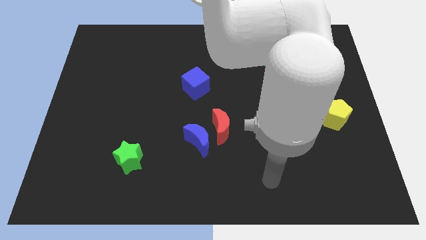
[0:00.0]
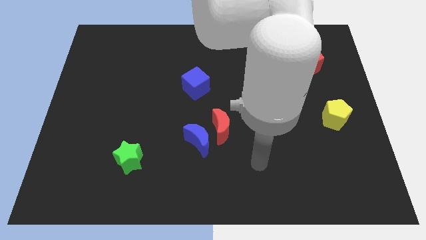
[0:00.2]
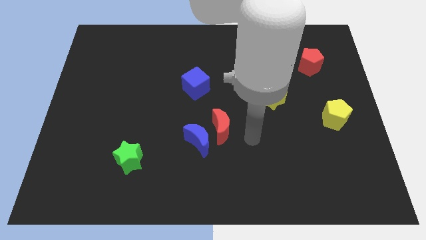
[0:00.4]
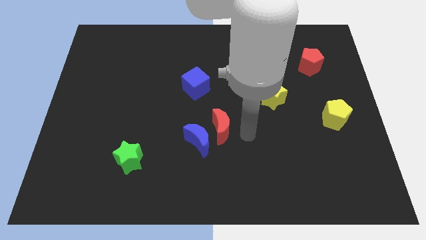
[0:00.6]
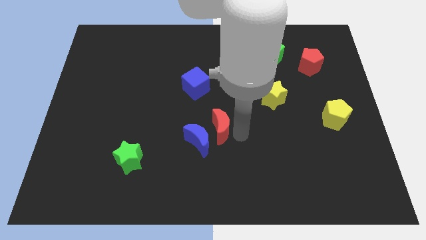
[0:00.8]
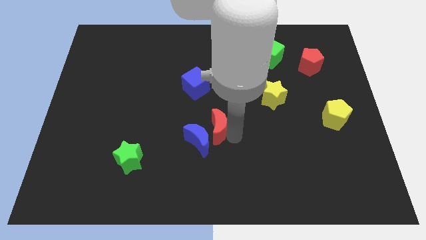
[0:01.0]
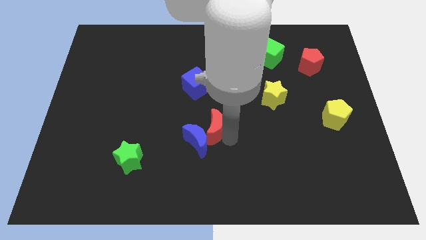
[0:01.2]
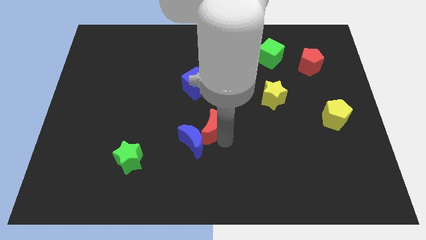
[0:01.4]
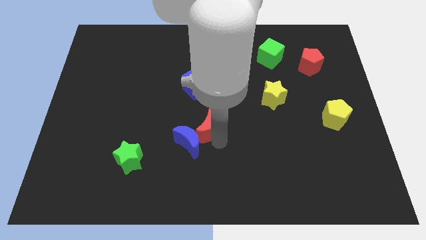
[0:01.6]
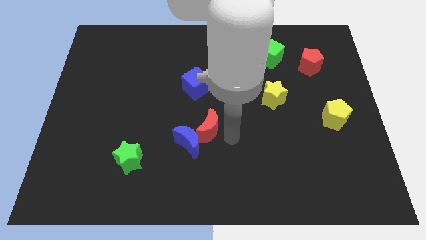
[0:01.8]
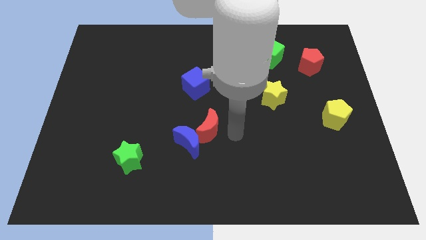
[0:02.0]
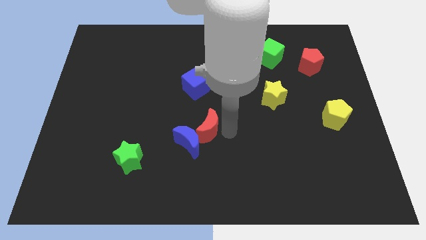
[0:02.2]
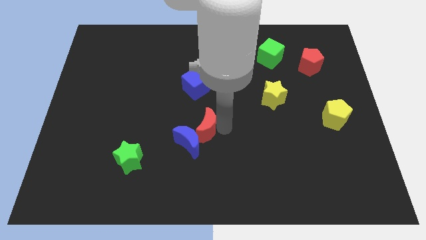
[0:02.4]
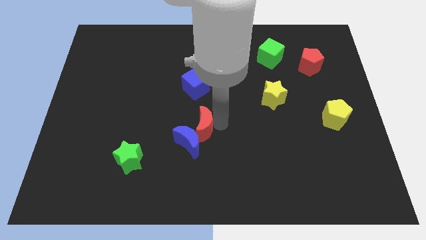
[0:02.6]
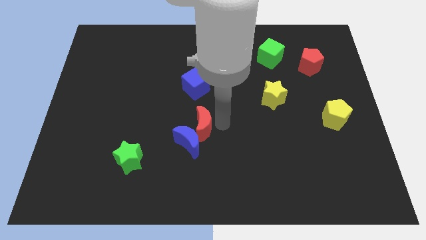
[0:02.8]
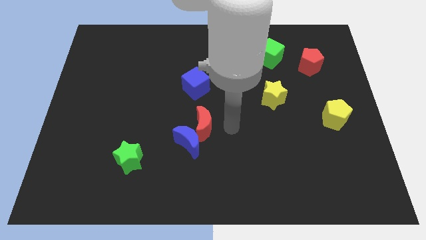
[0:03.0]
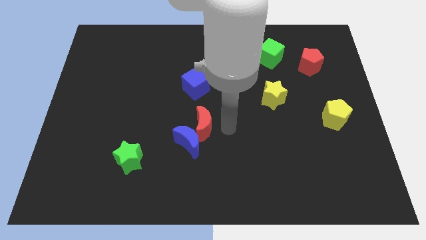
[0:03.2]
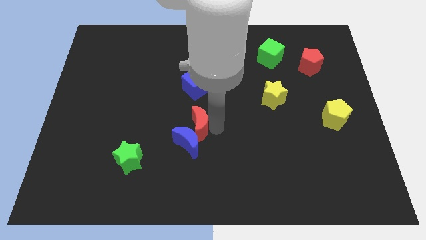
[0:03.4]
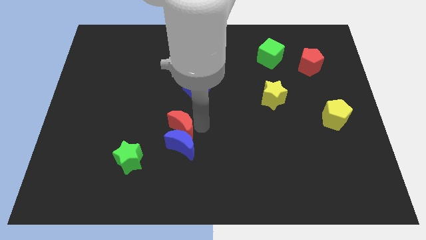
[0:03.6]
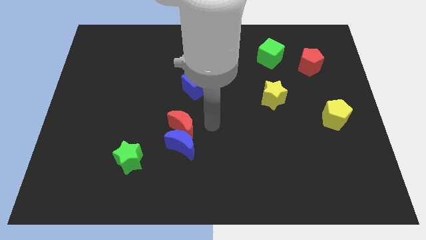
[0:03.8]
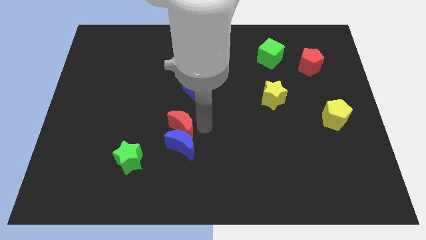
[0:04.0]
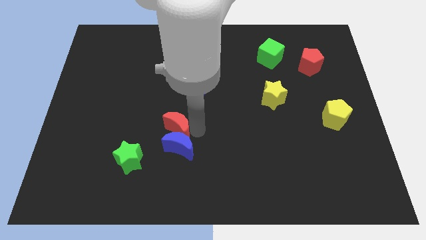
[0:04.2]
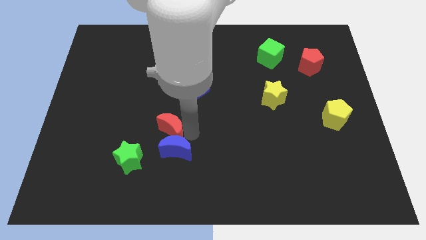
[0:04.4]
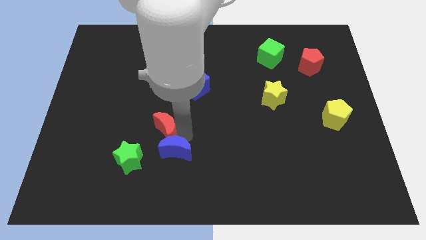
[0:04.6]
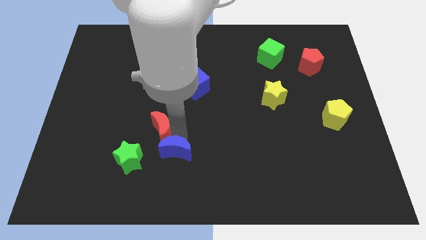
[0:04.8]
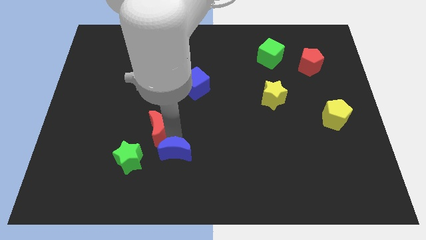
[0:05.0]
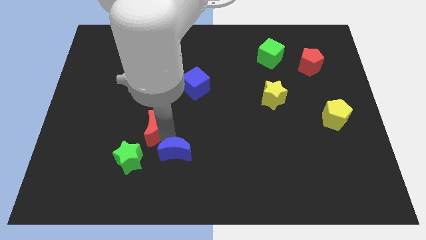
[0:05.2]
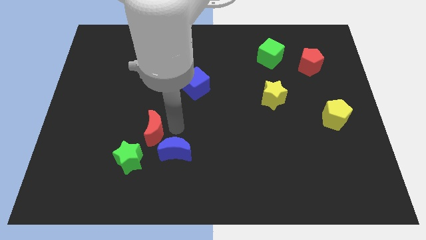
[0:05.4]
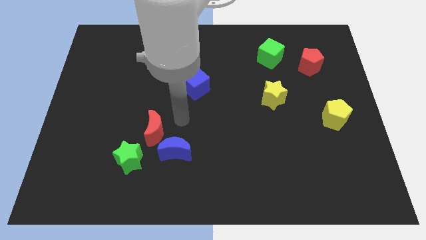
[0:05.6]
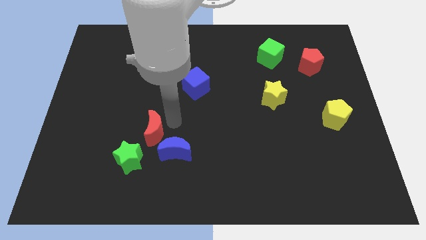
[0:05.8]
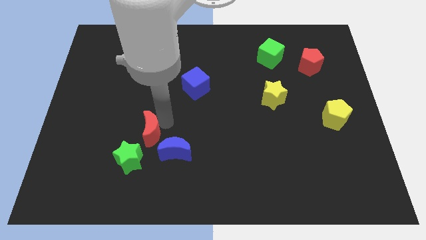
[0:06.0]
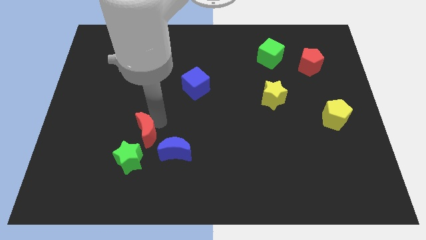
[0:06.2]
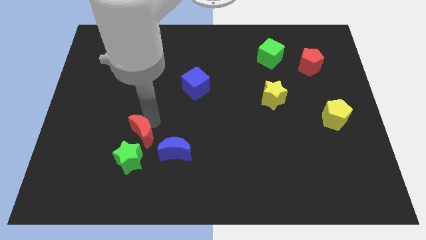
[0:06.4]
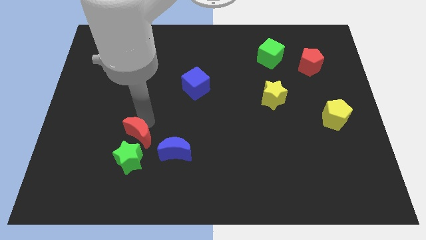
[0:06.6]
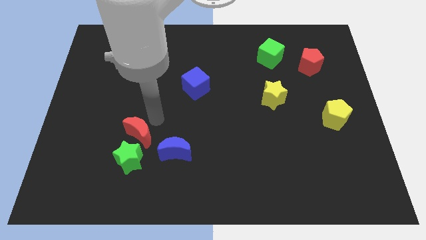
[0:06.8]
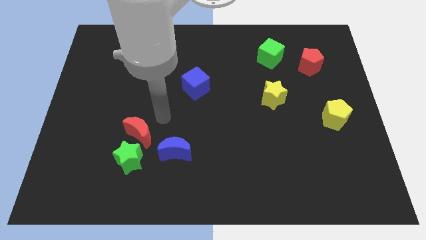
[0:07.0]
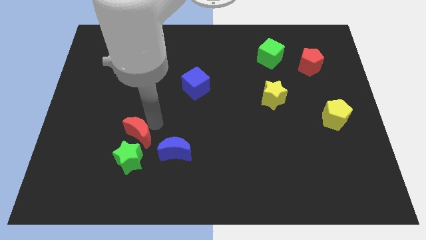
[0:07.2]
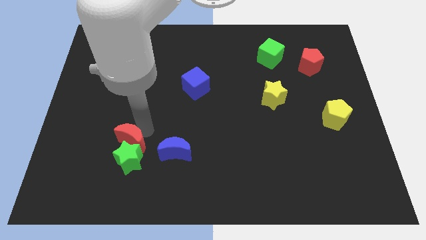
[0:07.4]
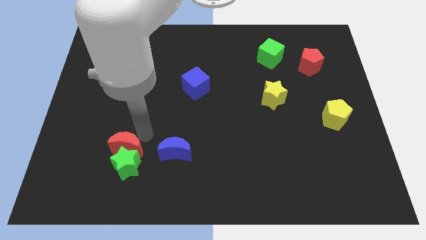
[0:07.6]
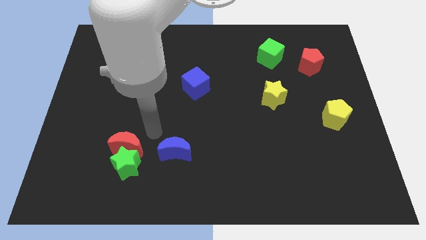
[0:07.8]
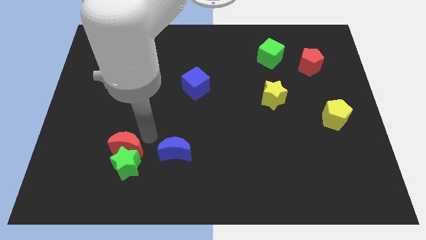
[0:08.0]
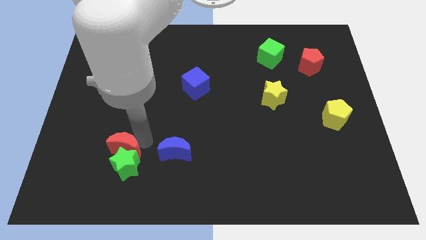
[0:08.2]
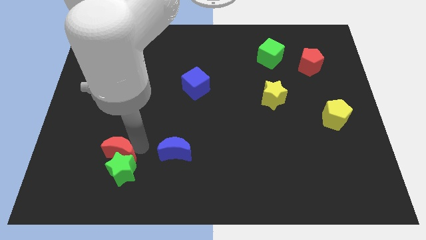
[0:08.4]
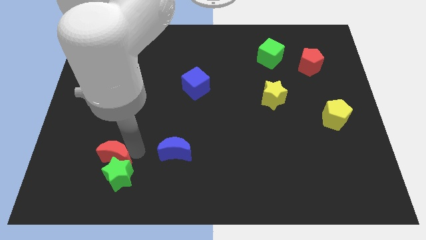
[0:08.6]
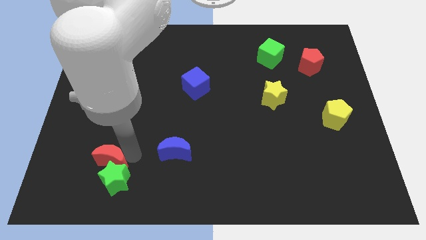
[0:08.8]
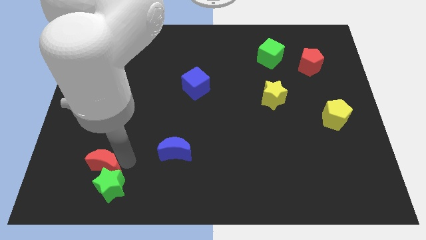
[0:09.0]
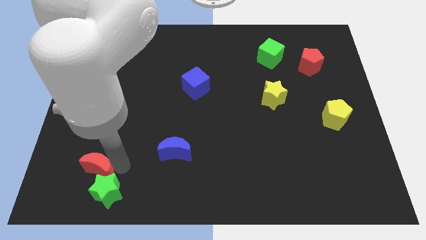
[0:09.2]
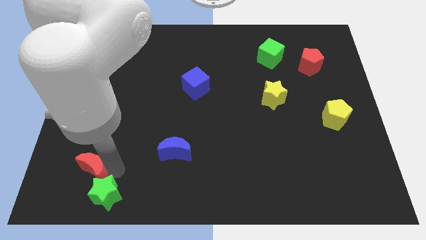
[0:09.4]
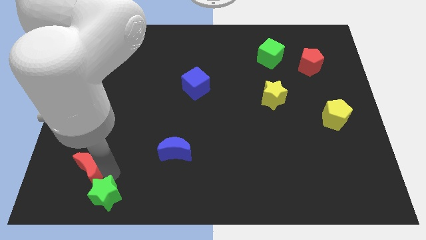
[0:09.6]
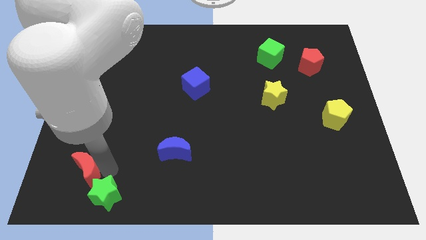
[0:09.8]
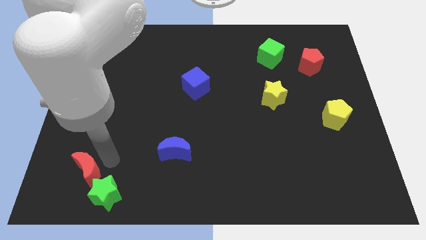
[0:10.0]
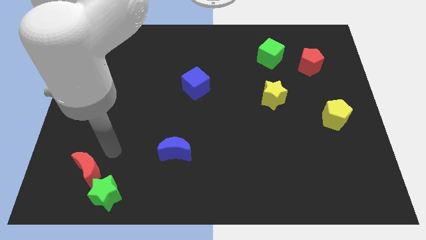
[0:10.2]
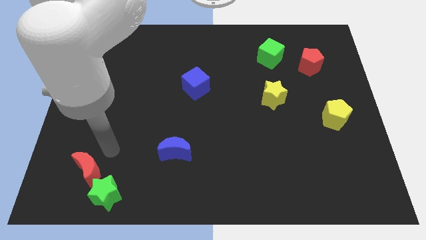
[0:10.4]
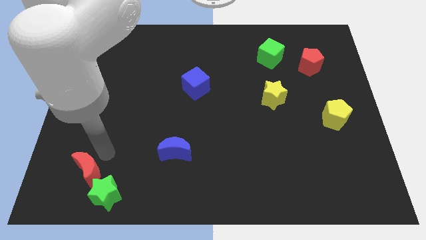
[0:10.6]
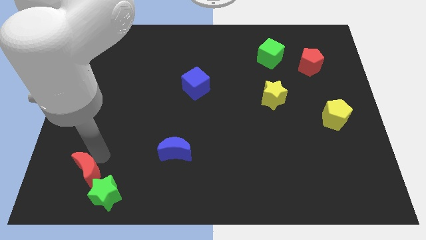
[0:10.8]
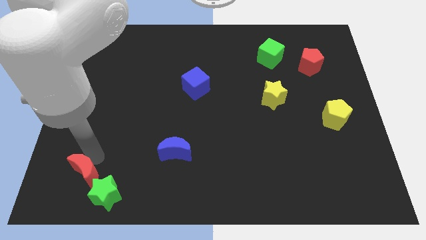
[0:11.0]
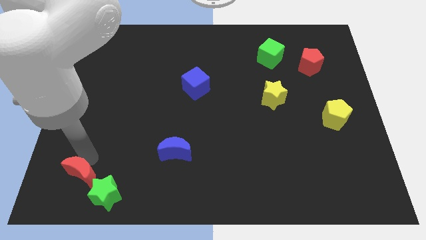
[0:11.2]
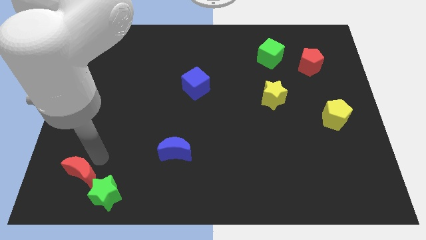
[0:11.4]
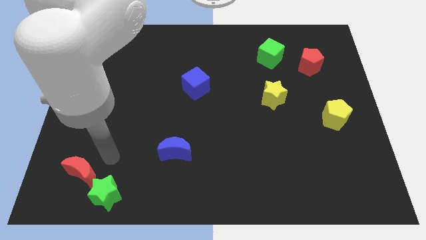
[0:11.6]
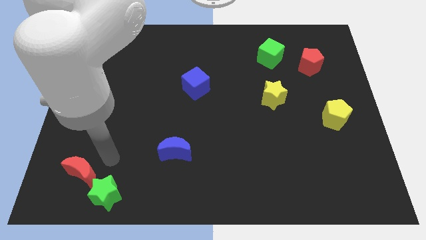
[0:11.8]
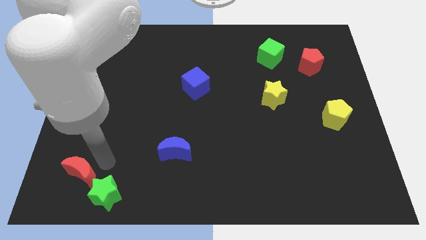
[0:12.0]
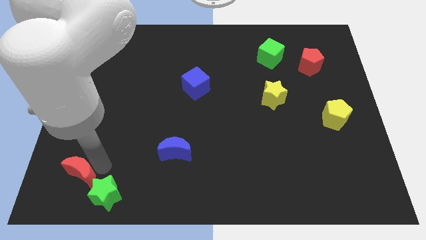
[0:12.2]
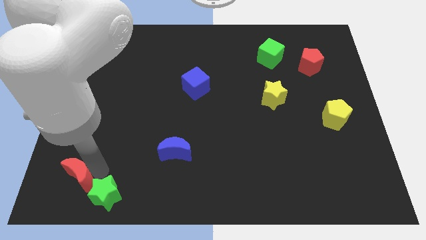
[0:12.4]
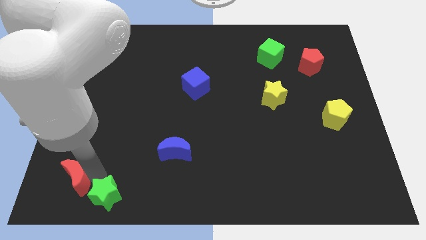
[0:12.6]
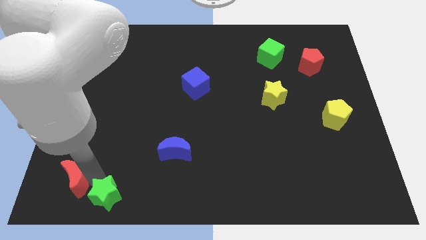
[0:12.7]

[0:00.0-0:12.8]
slide the red moon to the bottom left of the board
